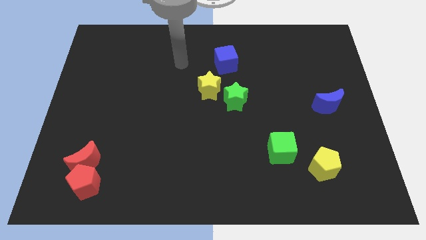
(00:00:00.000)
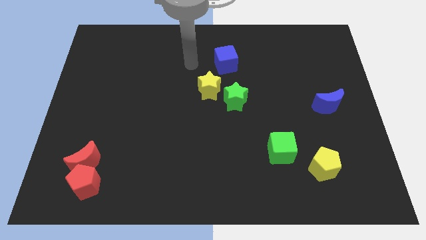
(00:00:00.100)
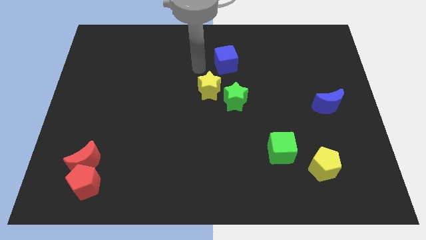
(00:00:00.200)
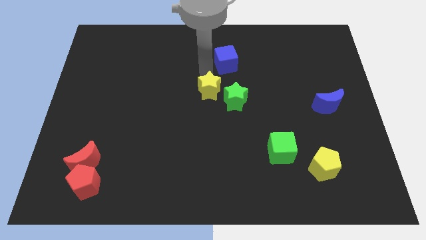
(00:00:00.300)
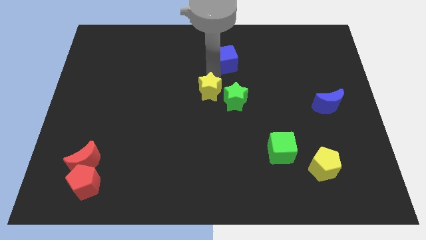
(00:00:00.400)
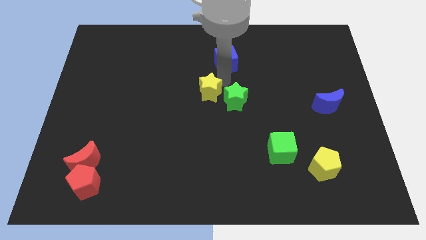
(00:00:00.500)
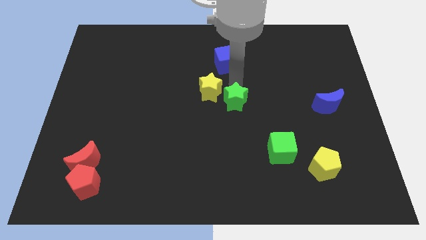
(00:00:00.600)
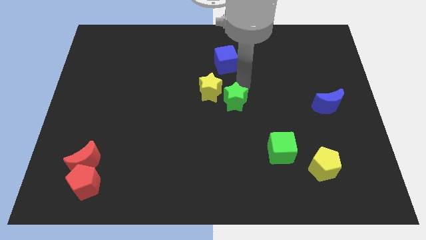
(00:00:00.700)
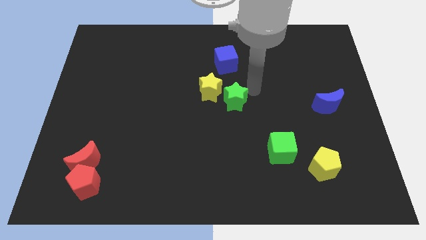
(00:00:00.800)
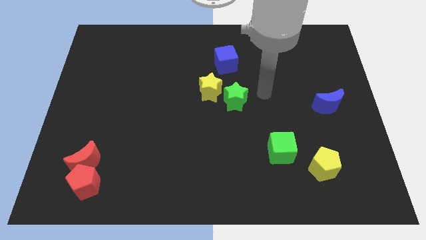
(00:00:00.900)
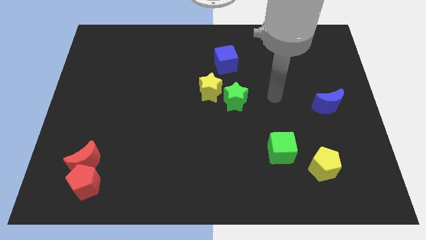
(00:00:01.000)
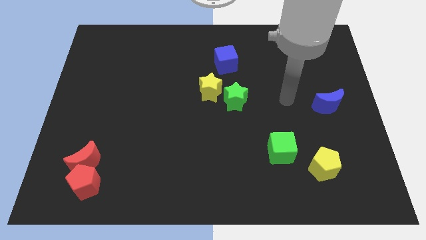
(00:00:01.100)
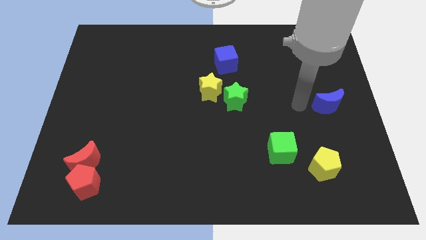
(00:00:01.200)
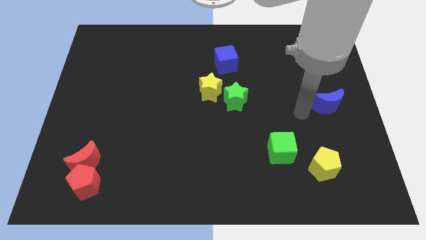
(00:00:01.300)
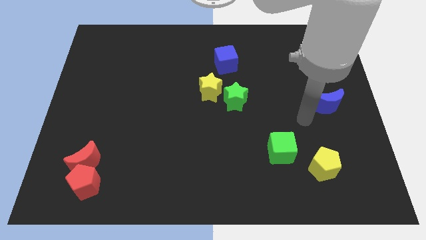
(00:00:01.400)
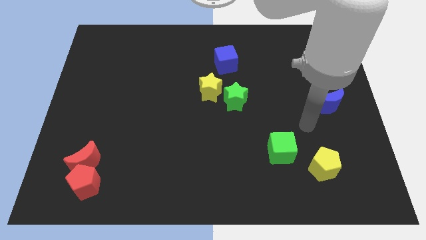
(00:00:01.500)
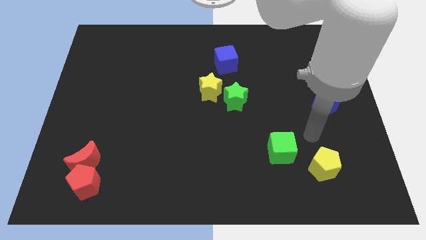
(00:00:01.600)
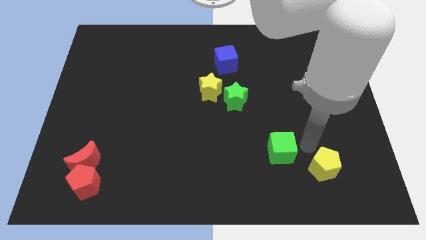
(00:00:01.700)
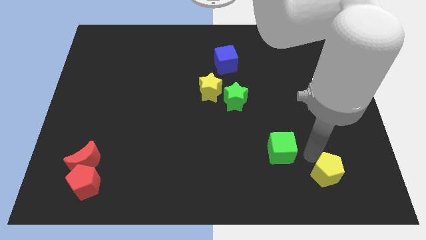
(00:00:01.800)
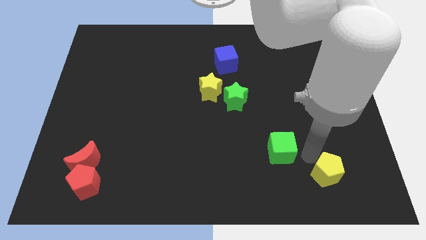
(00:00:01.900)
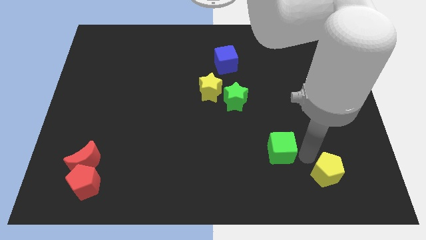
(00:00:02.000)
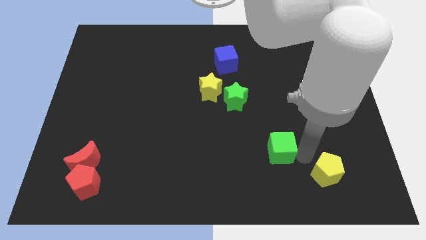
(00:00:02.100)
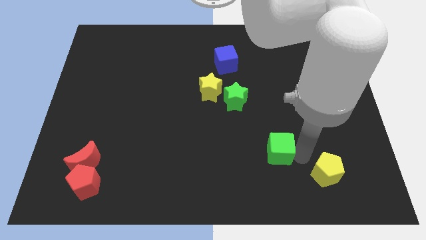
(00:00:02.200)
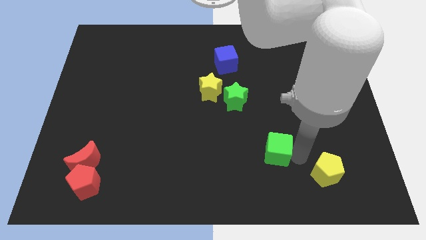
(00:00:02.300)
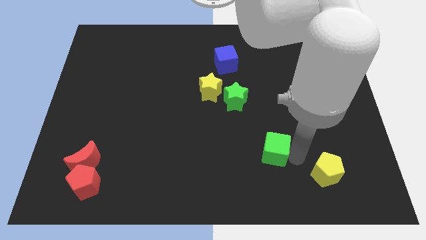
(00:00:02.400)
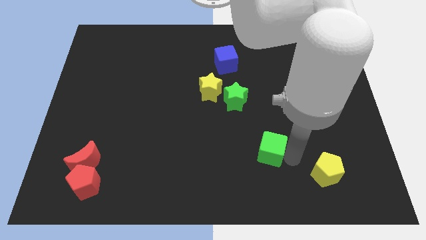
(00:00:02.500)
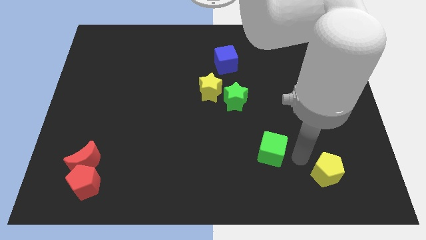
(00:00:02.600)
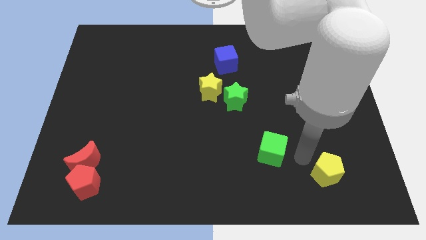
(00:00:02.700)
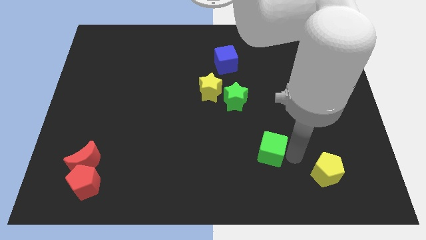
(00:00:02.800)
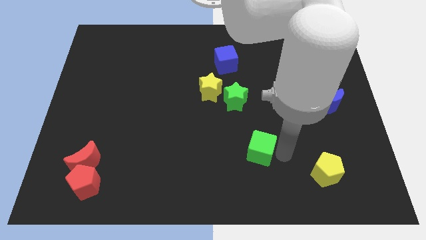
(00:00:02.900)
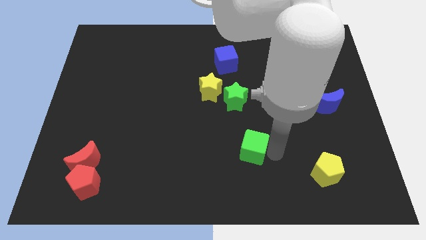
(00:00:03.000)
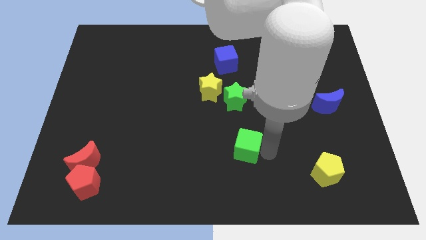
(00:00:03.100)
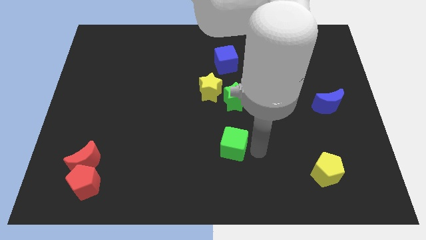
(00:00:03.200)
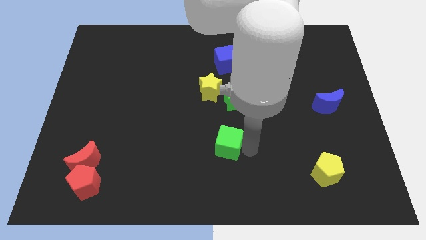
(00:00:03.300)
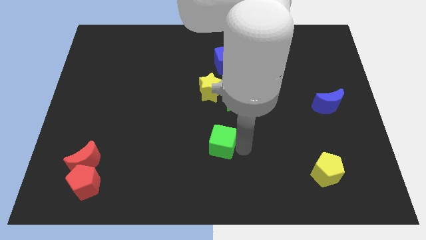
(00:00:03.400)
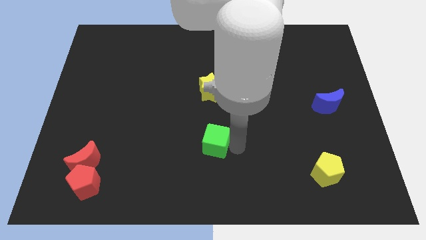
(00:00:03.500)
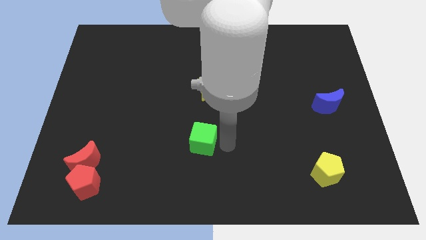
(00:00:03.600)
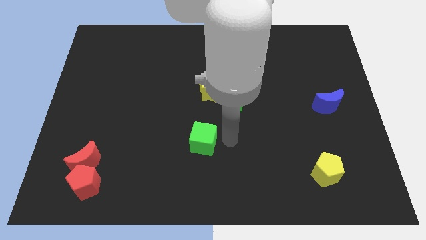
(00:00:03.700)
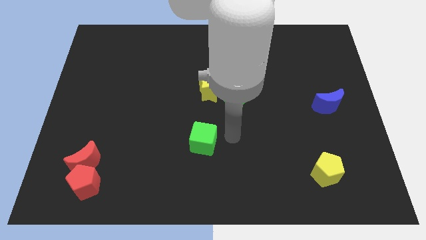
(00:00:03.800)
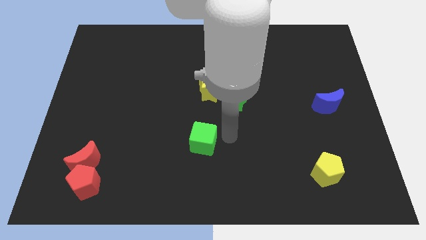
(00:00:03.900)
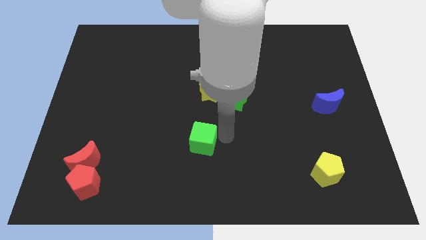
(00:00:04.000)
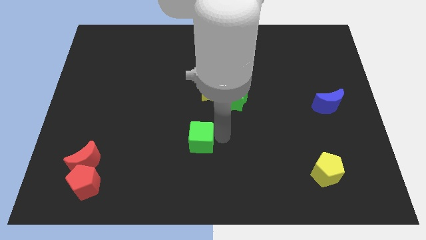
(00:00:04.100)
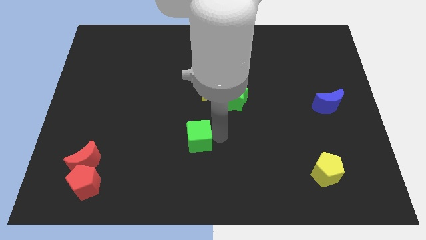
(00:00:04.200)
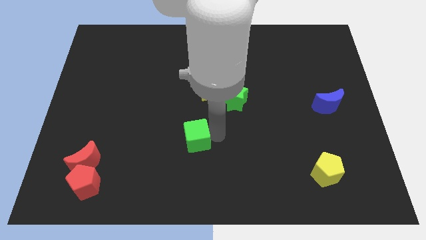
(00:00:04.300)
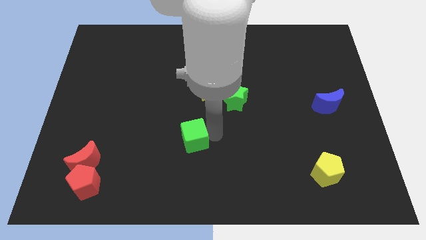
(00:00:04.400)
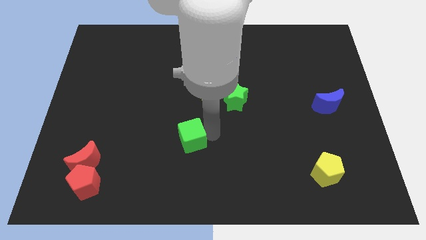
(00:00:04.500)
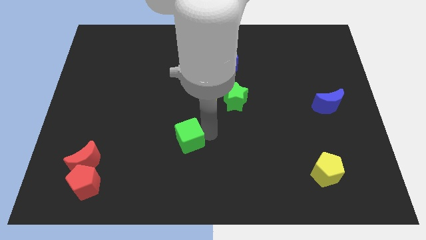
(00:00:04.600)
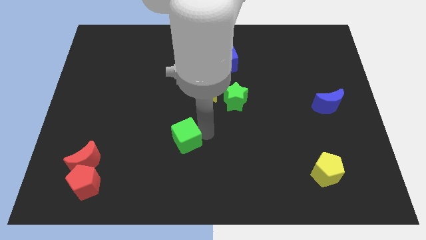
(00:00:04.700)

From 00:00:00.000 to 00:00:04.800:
move the green cube left

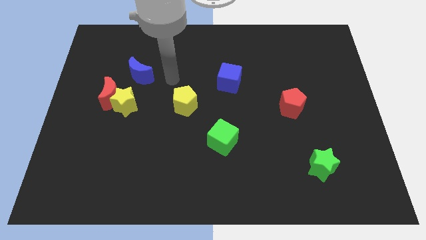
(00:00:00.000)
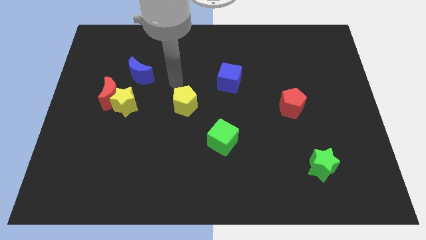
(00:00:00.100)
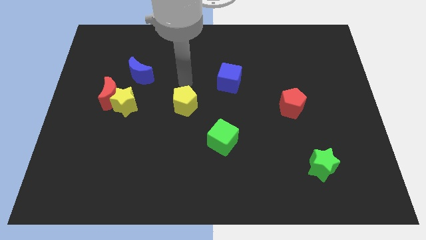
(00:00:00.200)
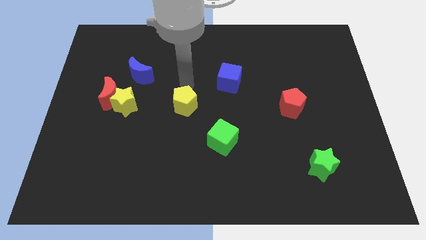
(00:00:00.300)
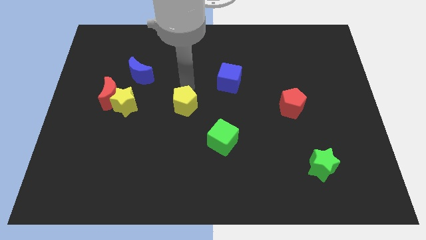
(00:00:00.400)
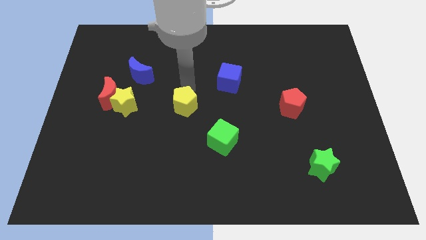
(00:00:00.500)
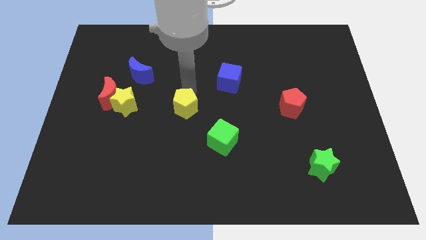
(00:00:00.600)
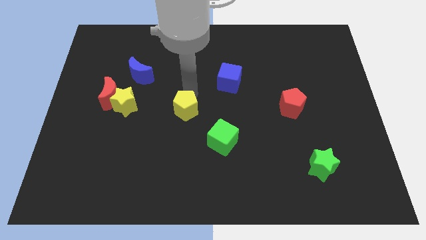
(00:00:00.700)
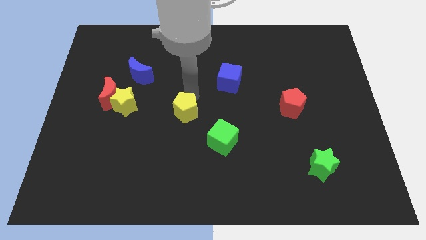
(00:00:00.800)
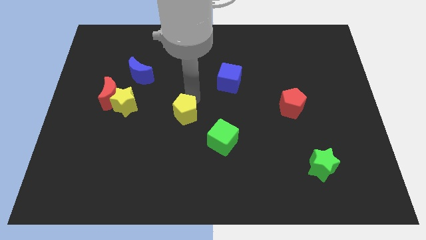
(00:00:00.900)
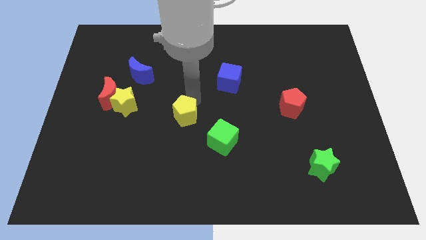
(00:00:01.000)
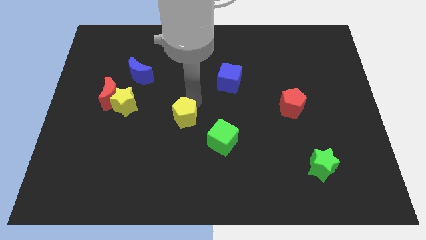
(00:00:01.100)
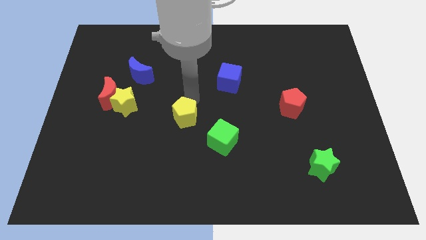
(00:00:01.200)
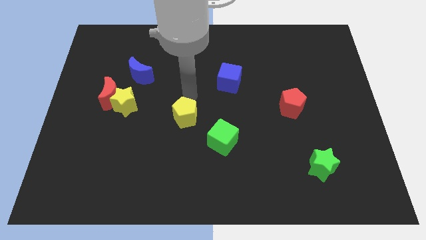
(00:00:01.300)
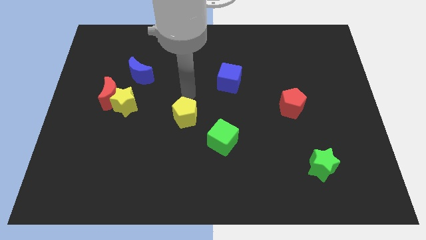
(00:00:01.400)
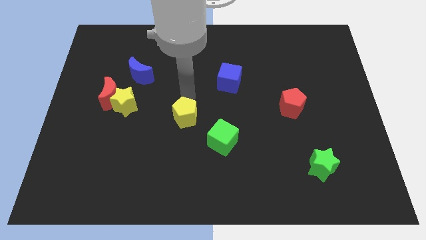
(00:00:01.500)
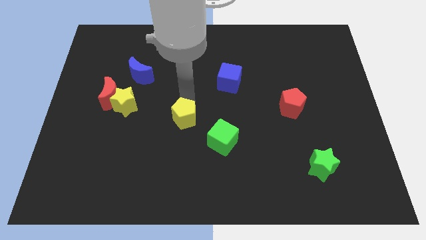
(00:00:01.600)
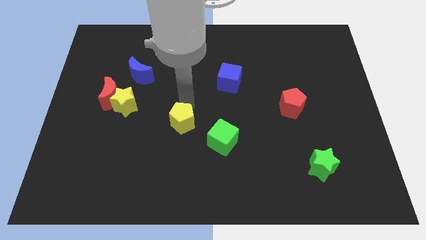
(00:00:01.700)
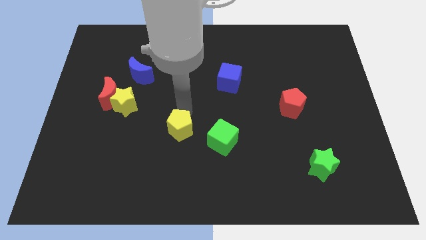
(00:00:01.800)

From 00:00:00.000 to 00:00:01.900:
push the yellow pentagon a bit down

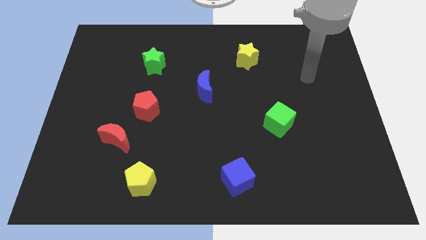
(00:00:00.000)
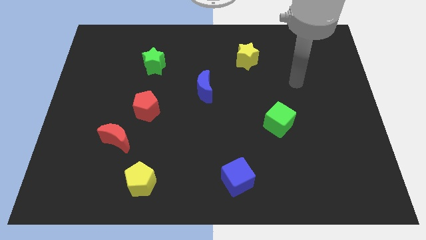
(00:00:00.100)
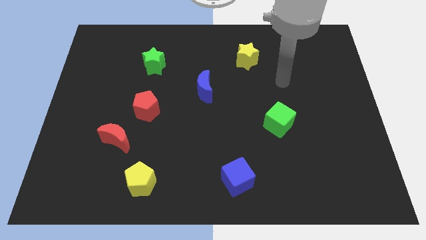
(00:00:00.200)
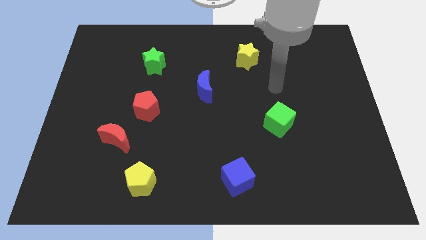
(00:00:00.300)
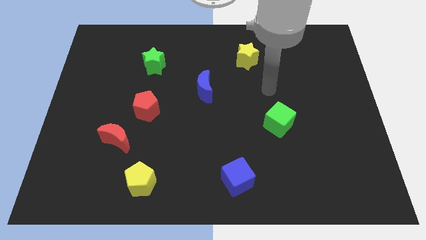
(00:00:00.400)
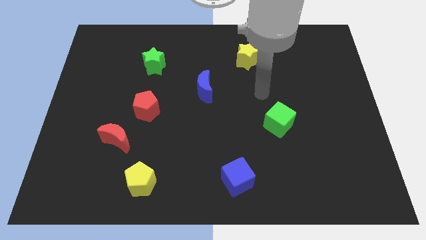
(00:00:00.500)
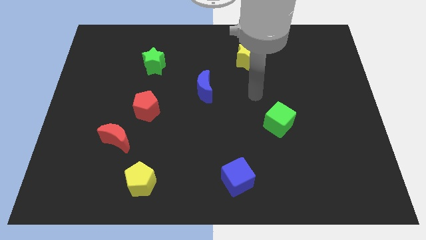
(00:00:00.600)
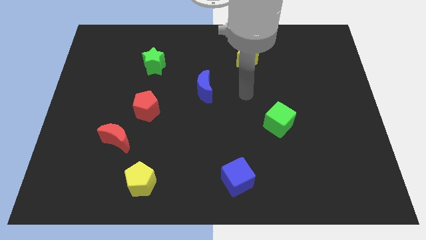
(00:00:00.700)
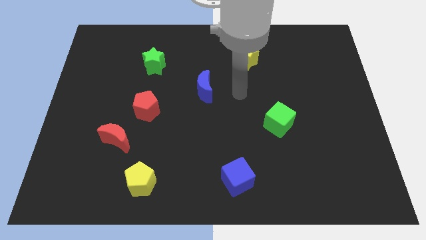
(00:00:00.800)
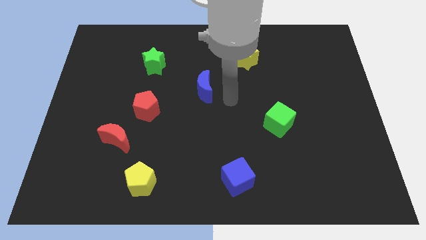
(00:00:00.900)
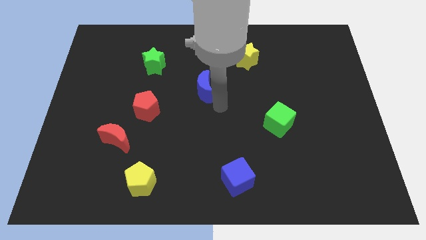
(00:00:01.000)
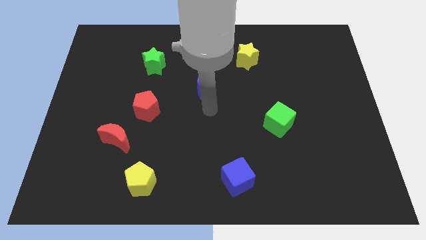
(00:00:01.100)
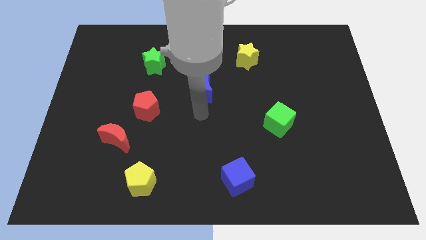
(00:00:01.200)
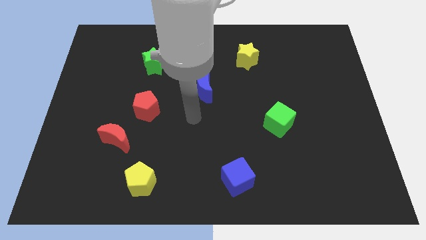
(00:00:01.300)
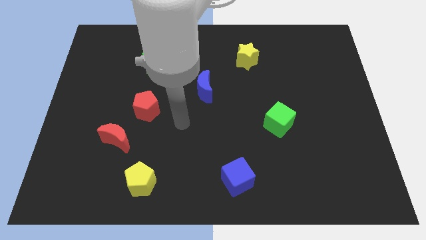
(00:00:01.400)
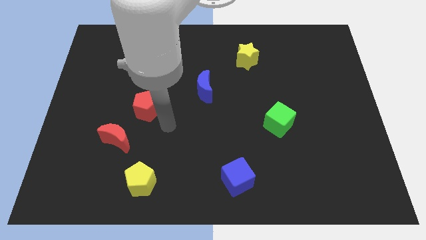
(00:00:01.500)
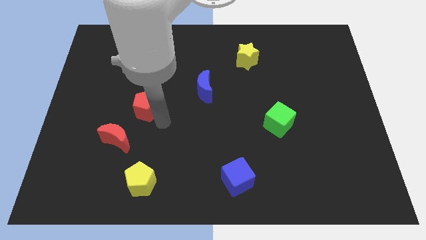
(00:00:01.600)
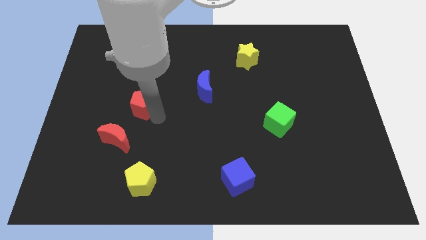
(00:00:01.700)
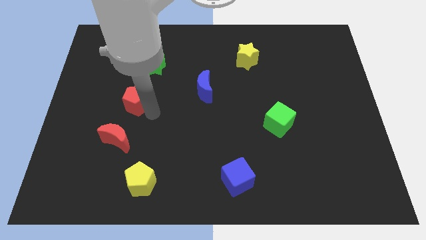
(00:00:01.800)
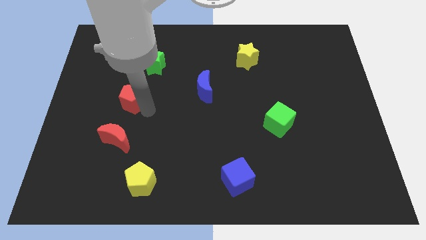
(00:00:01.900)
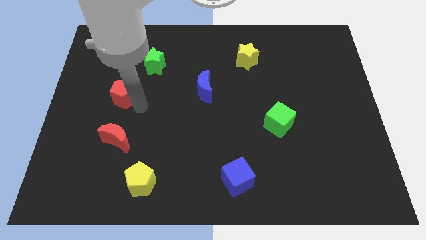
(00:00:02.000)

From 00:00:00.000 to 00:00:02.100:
move the red pentagon up and to the left diagonally slightly
